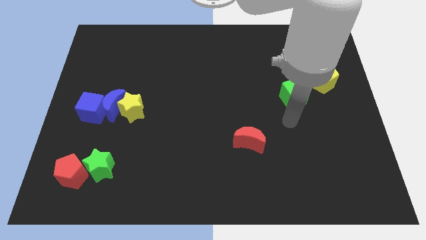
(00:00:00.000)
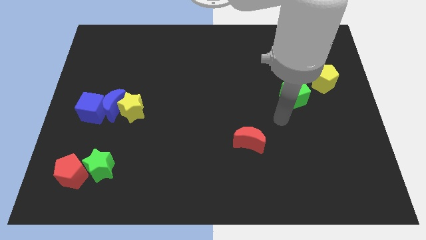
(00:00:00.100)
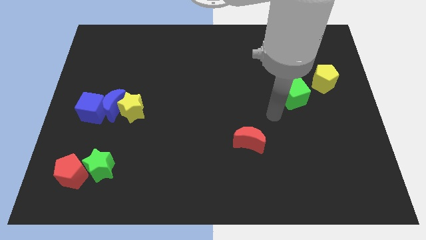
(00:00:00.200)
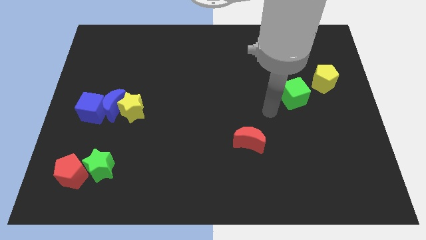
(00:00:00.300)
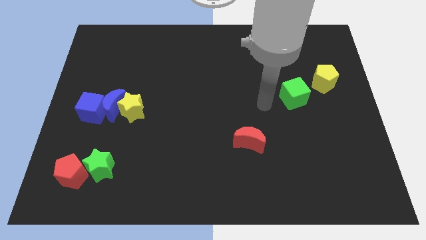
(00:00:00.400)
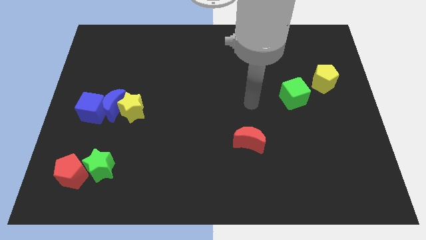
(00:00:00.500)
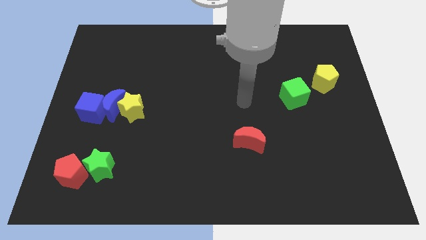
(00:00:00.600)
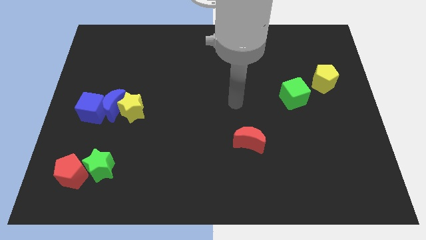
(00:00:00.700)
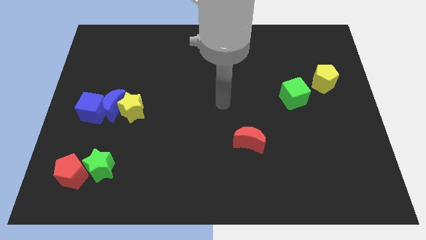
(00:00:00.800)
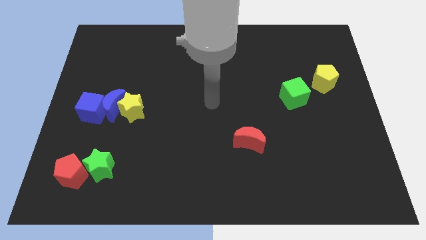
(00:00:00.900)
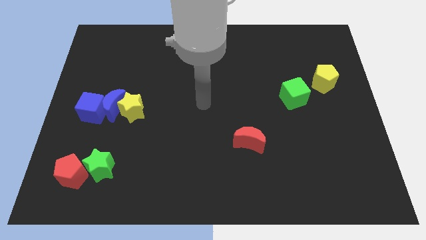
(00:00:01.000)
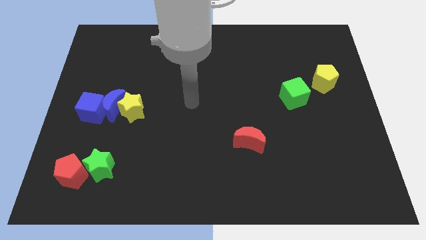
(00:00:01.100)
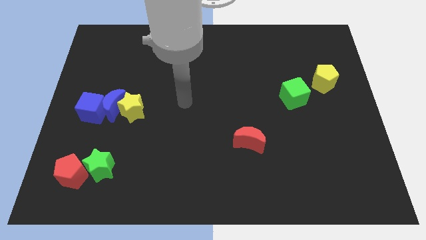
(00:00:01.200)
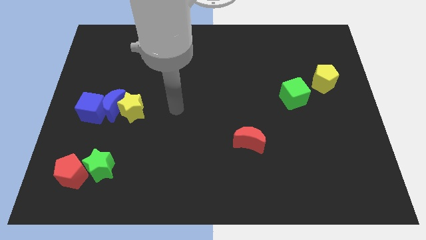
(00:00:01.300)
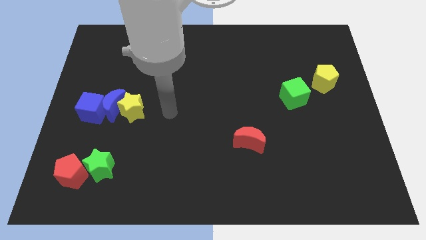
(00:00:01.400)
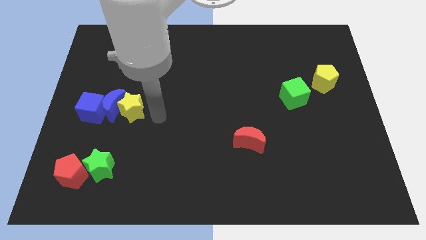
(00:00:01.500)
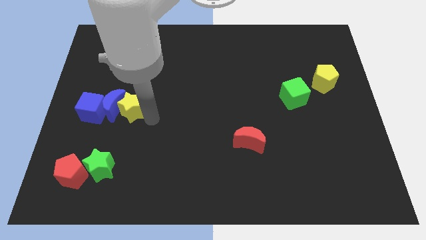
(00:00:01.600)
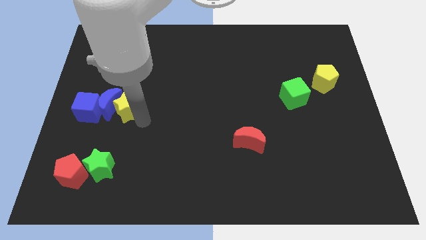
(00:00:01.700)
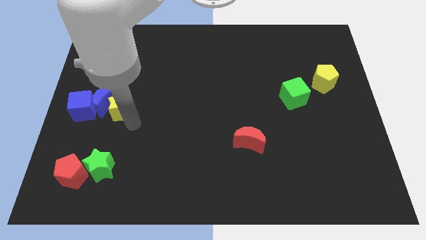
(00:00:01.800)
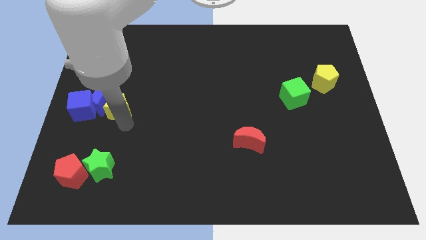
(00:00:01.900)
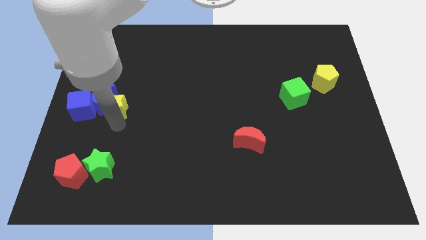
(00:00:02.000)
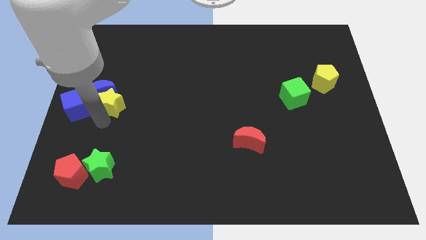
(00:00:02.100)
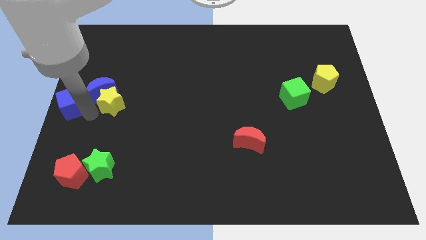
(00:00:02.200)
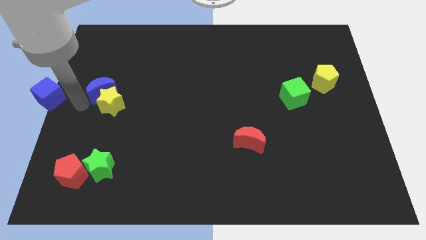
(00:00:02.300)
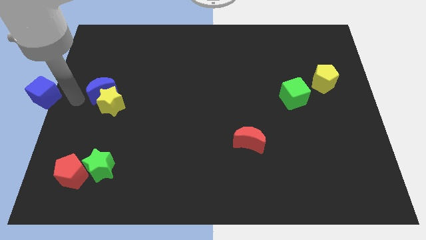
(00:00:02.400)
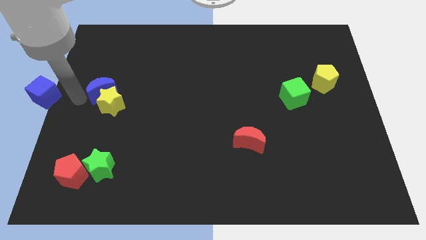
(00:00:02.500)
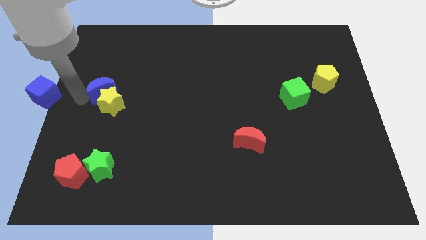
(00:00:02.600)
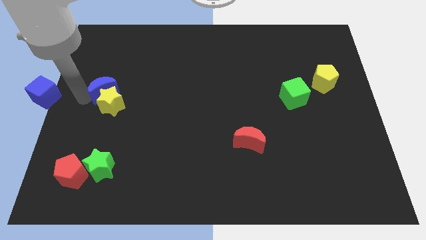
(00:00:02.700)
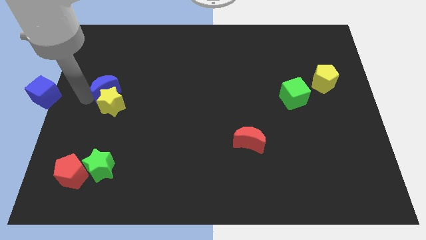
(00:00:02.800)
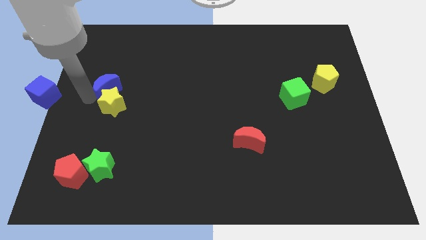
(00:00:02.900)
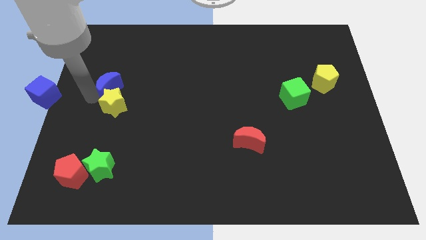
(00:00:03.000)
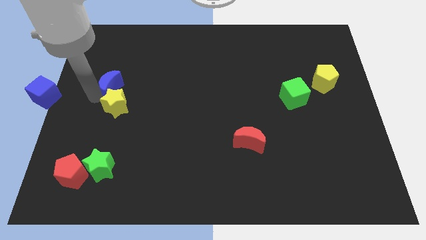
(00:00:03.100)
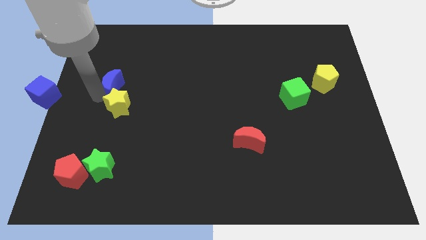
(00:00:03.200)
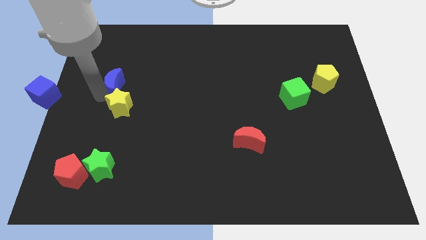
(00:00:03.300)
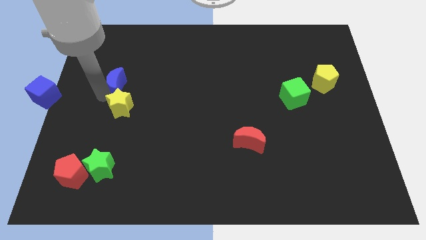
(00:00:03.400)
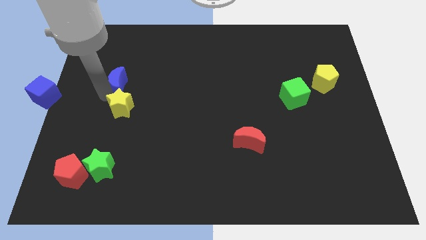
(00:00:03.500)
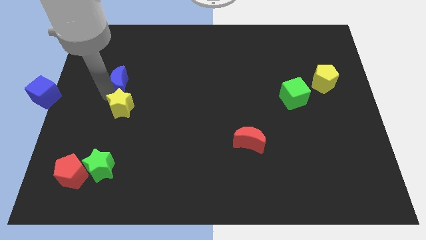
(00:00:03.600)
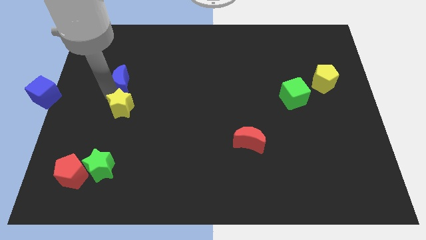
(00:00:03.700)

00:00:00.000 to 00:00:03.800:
pull the blue moon apart from the yellow star and blue cube

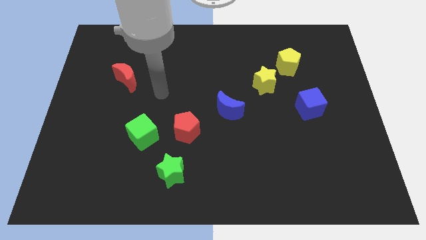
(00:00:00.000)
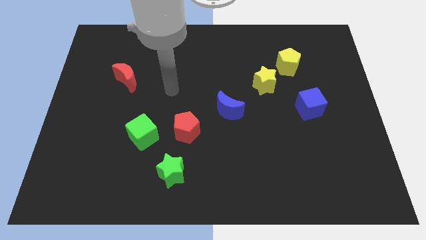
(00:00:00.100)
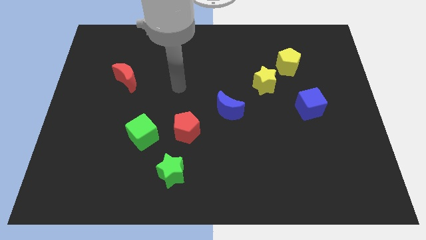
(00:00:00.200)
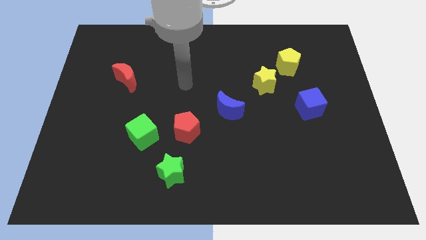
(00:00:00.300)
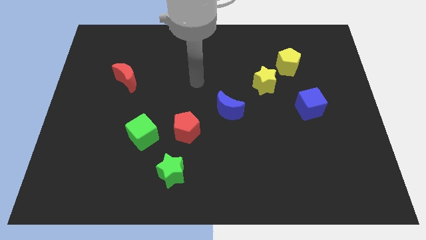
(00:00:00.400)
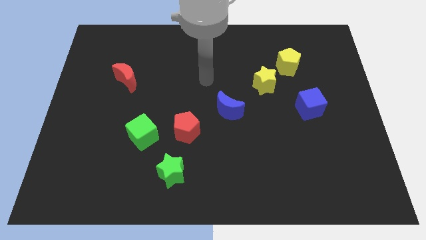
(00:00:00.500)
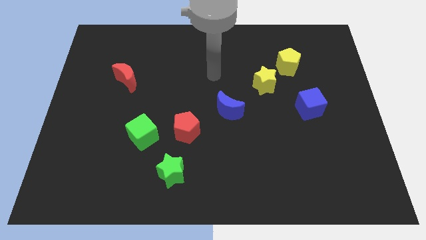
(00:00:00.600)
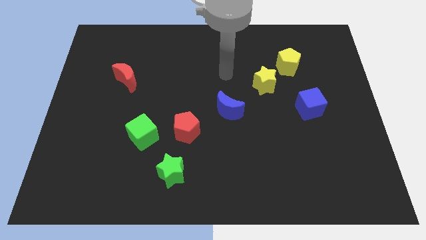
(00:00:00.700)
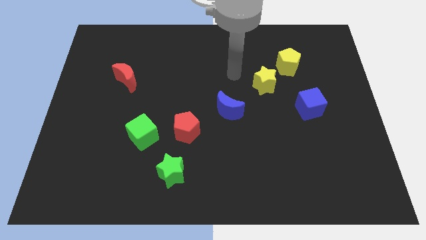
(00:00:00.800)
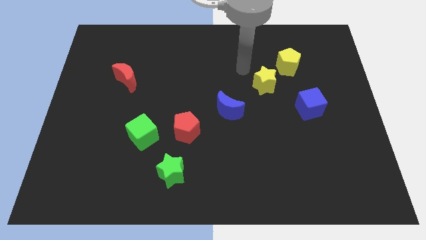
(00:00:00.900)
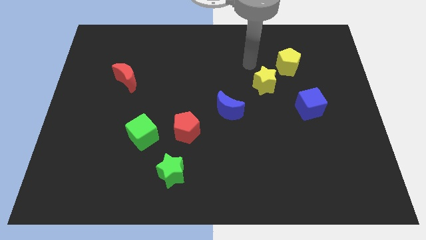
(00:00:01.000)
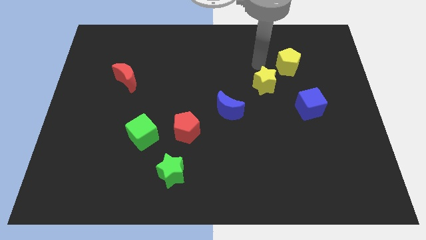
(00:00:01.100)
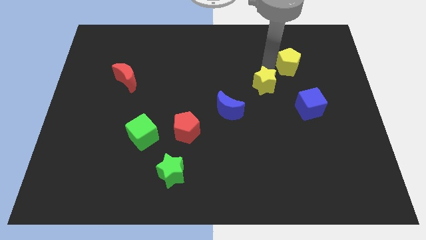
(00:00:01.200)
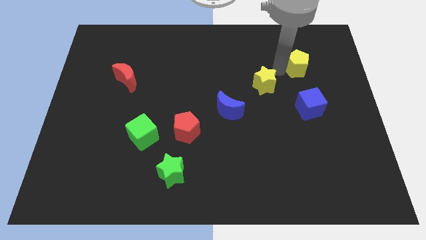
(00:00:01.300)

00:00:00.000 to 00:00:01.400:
pull the yellow star apart from the yellow pentagon

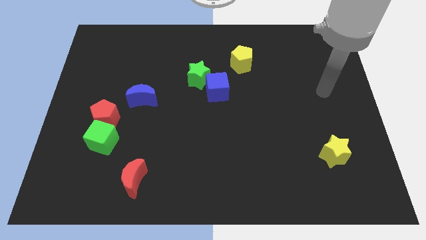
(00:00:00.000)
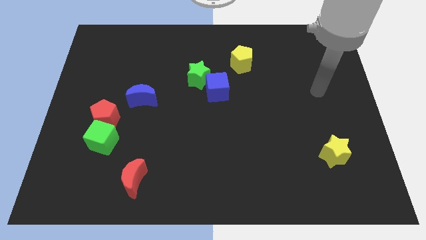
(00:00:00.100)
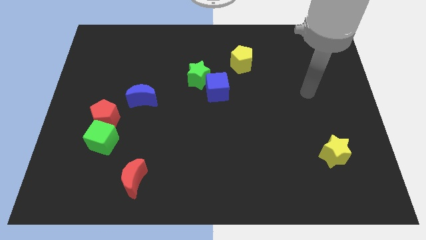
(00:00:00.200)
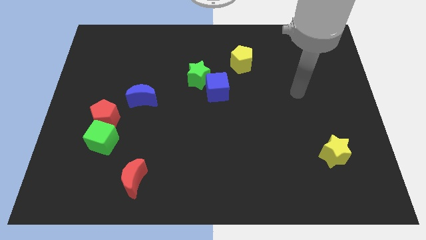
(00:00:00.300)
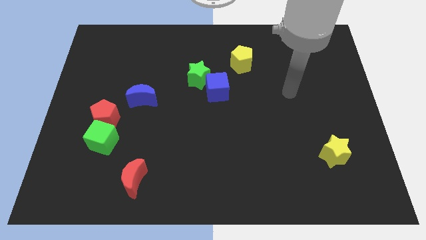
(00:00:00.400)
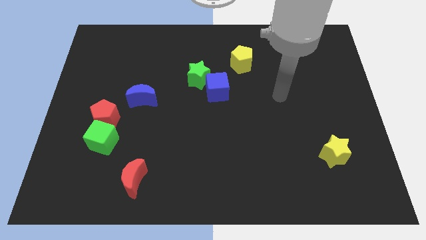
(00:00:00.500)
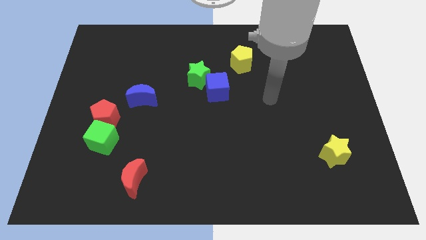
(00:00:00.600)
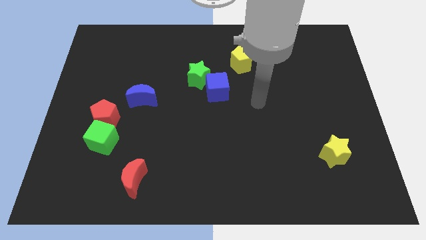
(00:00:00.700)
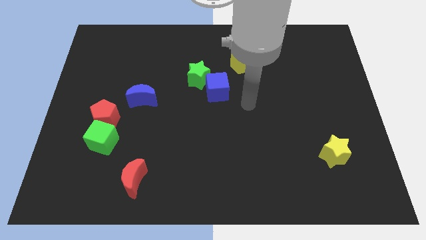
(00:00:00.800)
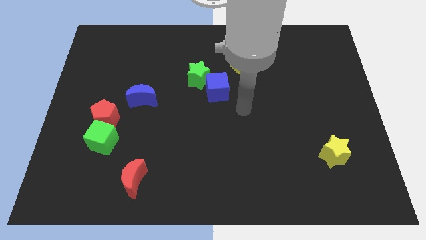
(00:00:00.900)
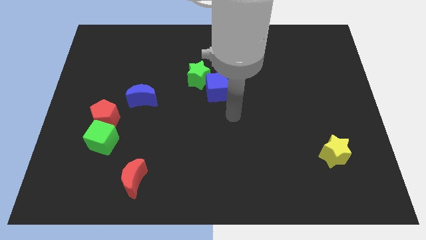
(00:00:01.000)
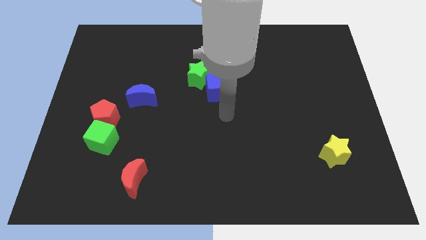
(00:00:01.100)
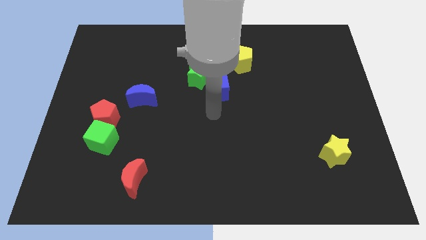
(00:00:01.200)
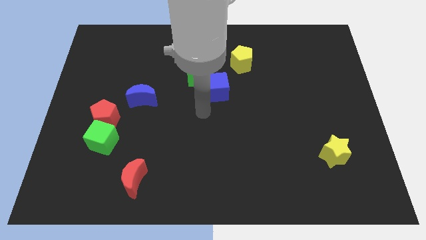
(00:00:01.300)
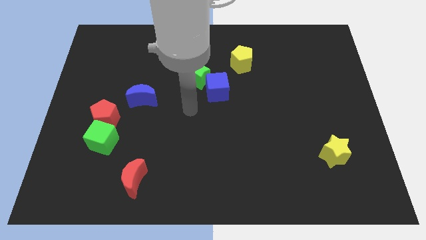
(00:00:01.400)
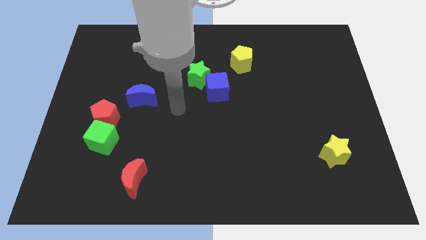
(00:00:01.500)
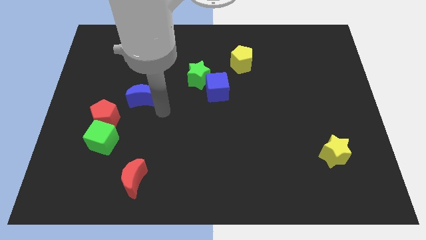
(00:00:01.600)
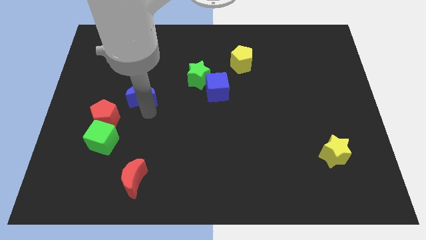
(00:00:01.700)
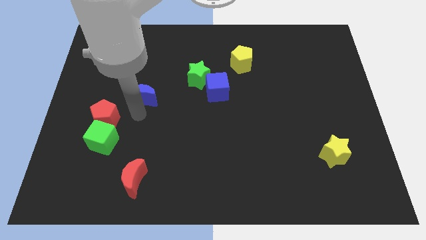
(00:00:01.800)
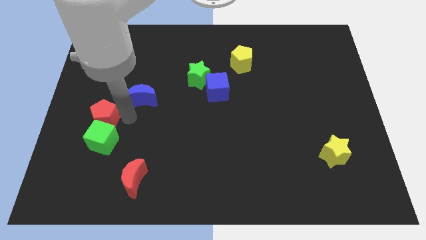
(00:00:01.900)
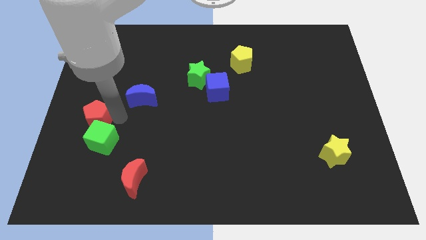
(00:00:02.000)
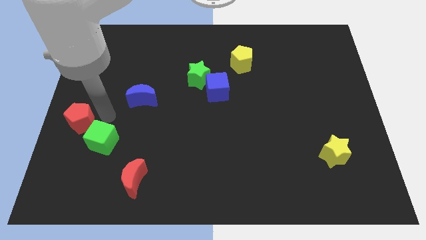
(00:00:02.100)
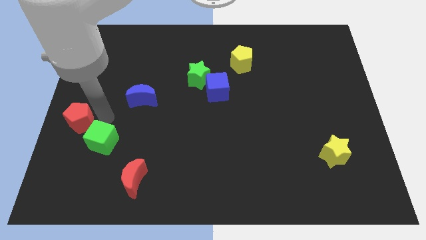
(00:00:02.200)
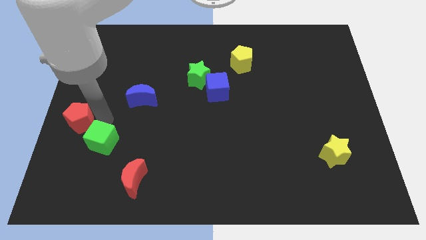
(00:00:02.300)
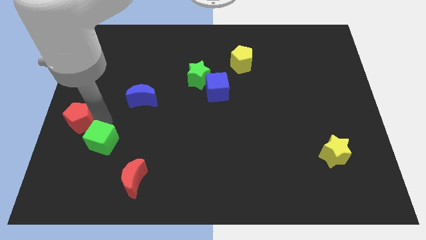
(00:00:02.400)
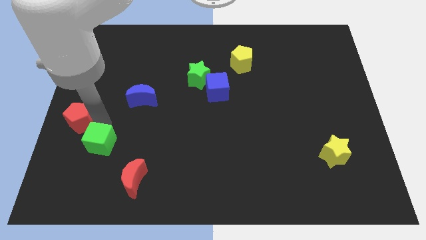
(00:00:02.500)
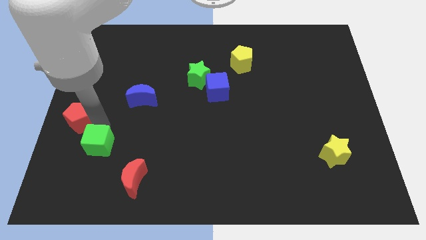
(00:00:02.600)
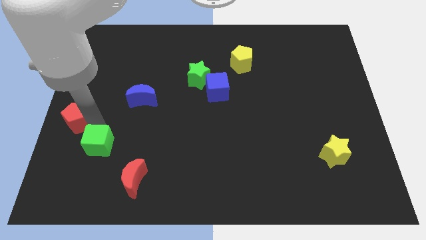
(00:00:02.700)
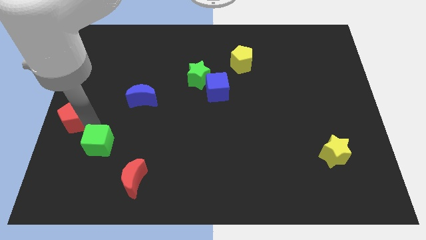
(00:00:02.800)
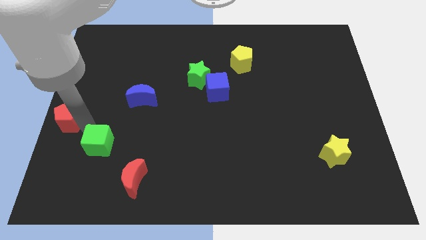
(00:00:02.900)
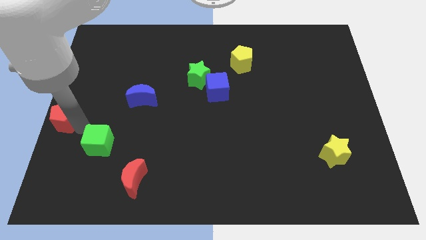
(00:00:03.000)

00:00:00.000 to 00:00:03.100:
separate the green cube from the red pentagon

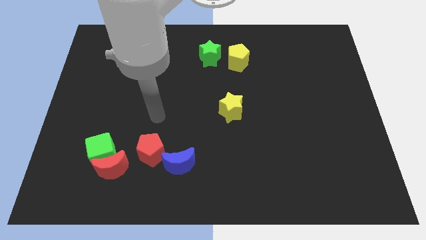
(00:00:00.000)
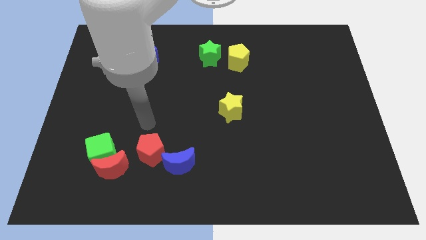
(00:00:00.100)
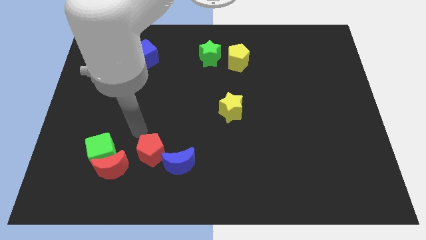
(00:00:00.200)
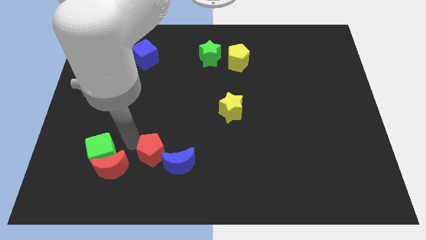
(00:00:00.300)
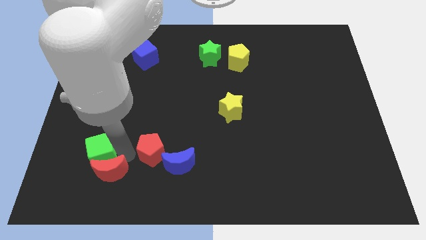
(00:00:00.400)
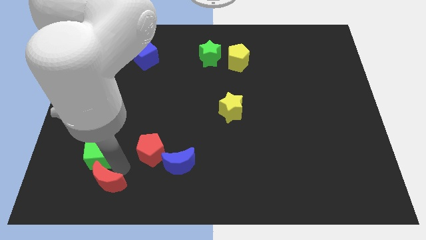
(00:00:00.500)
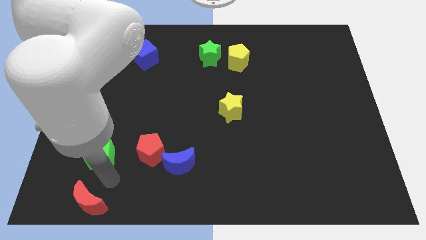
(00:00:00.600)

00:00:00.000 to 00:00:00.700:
move the green cube away from the red moon

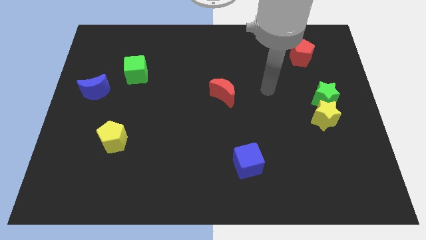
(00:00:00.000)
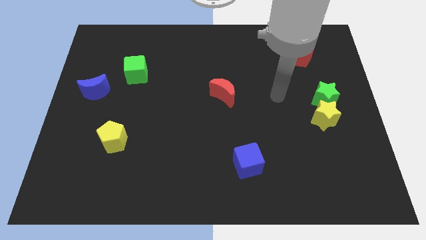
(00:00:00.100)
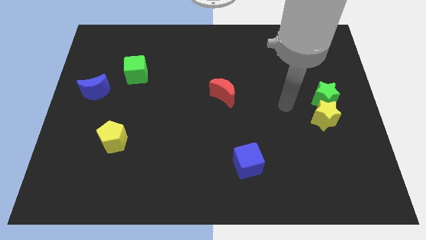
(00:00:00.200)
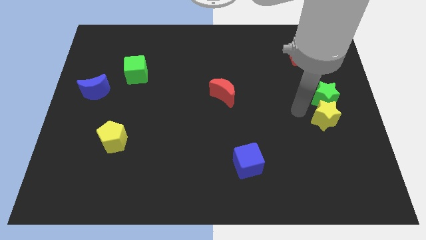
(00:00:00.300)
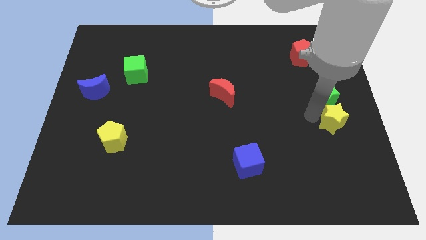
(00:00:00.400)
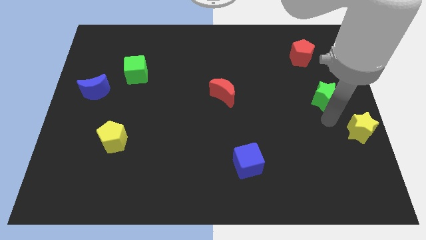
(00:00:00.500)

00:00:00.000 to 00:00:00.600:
move the green star away from the yellow star
